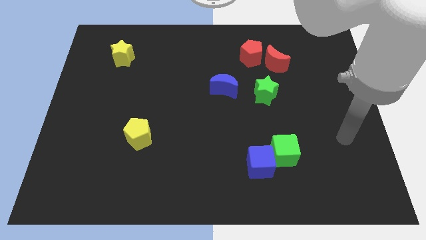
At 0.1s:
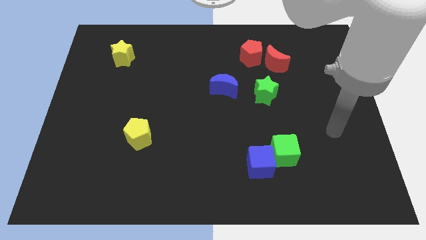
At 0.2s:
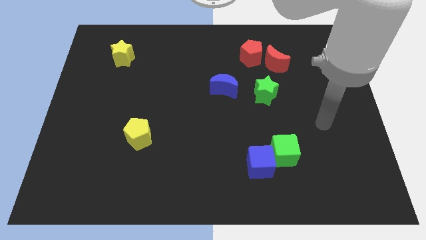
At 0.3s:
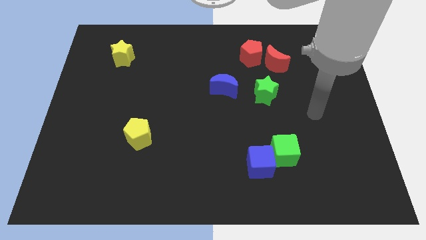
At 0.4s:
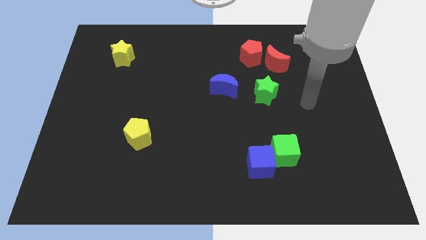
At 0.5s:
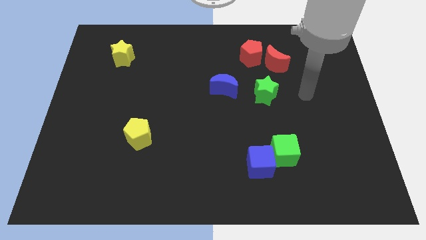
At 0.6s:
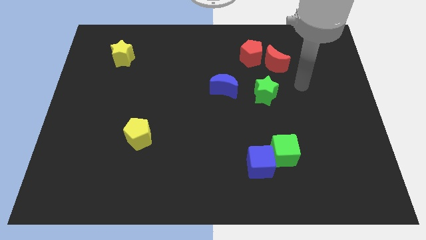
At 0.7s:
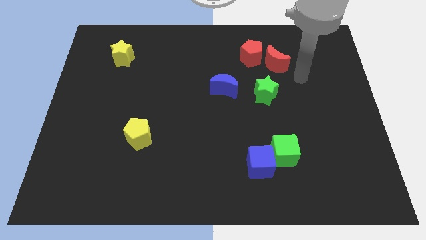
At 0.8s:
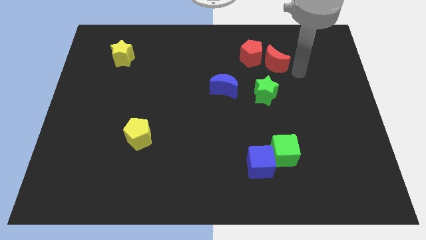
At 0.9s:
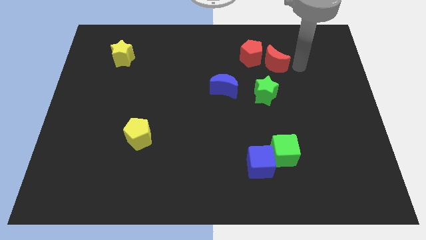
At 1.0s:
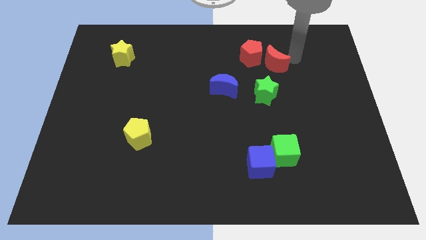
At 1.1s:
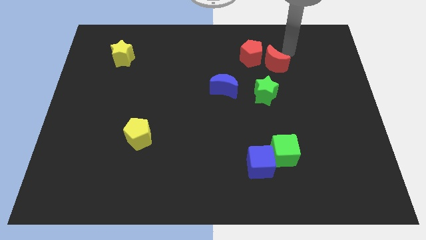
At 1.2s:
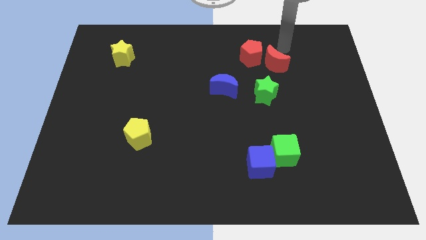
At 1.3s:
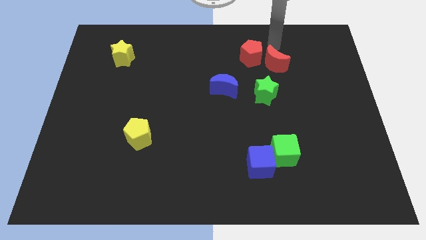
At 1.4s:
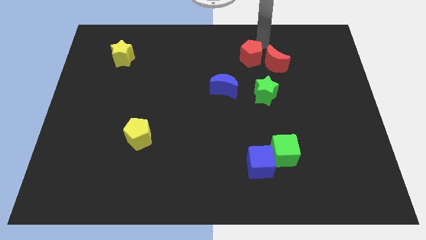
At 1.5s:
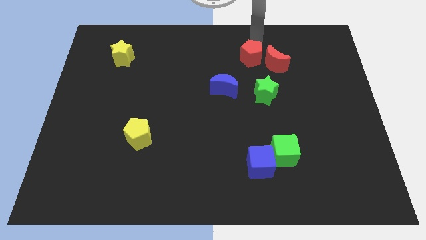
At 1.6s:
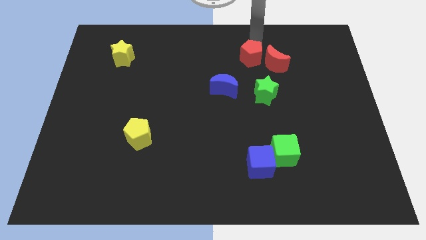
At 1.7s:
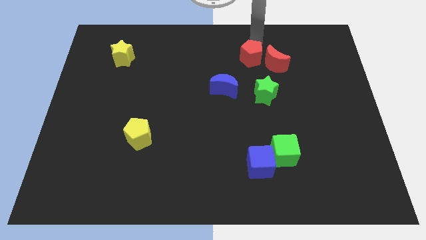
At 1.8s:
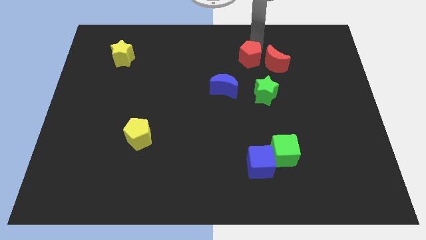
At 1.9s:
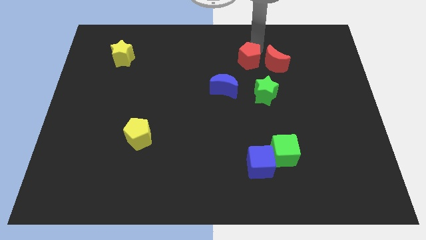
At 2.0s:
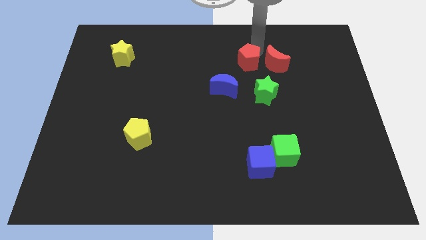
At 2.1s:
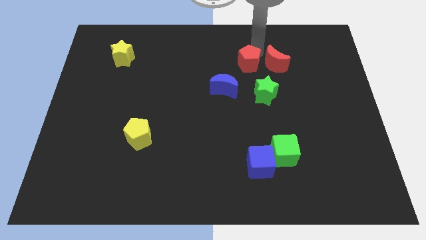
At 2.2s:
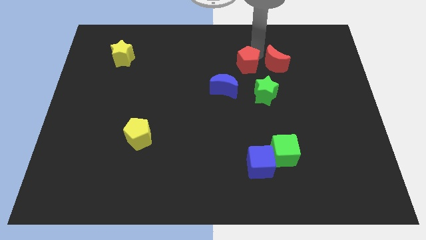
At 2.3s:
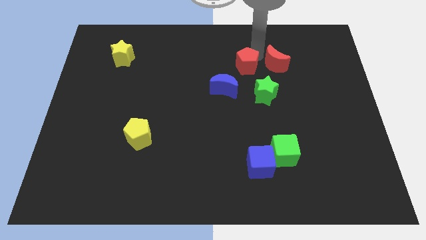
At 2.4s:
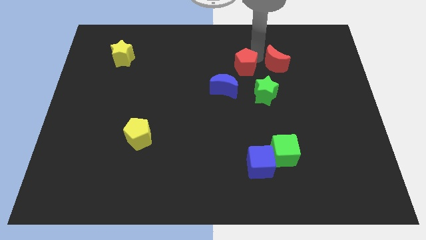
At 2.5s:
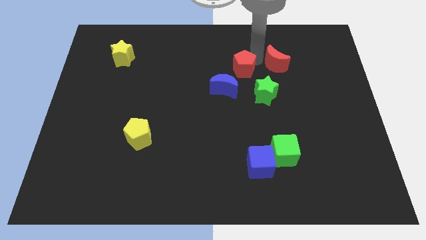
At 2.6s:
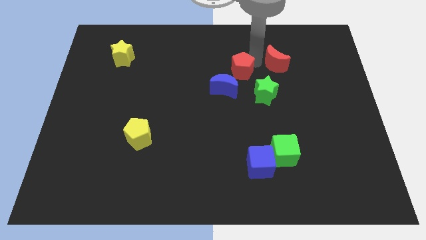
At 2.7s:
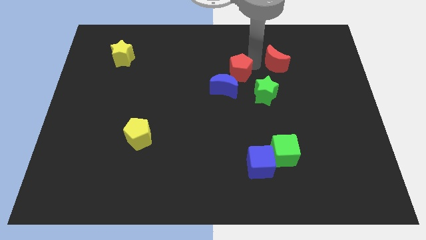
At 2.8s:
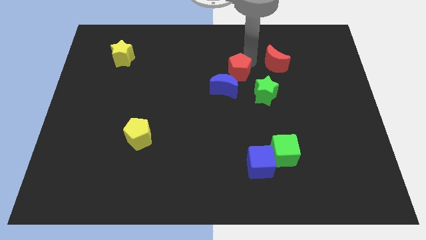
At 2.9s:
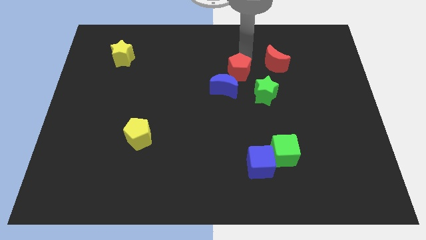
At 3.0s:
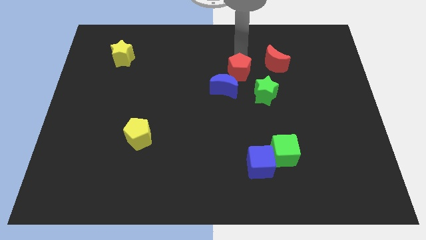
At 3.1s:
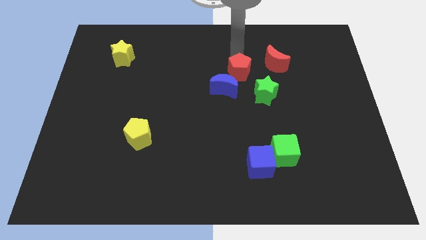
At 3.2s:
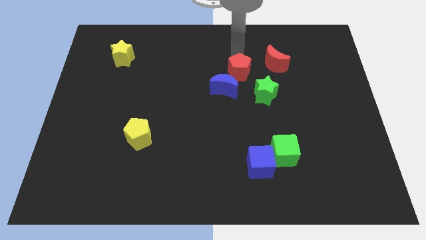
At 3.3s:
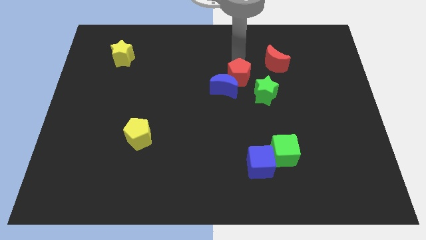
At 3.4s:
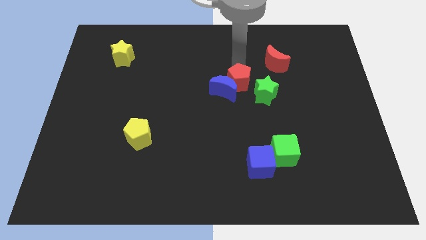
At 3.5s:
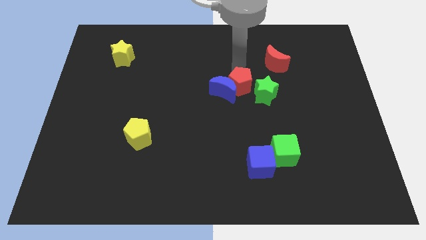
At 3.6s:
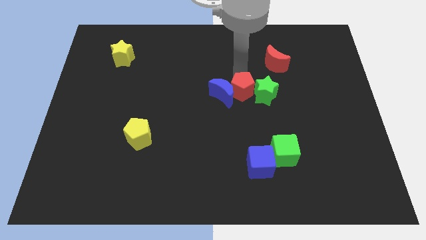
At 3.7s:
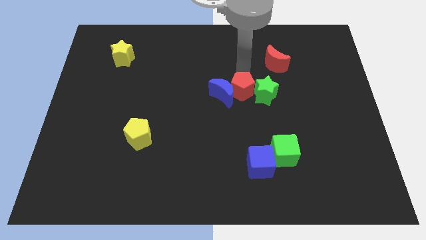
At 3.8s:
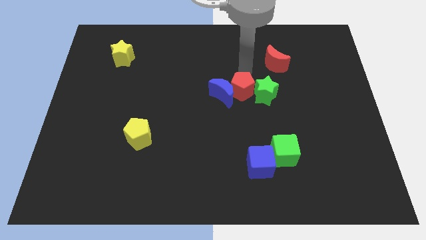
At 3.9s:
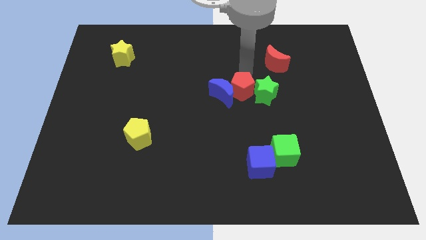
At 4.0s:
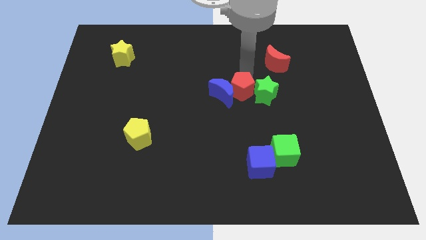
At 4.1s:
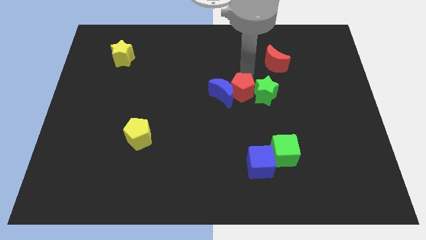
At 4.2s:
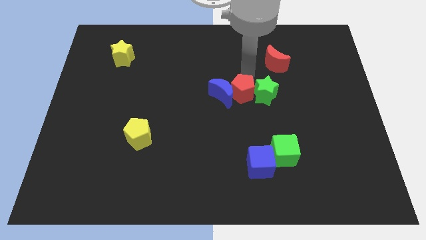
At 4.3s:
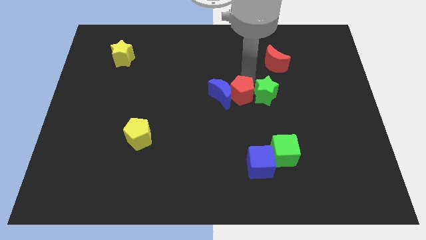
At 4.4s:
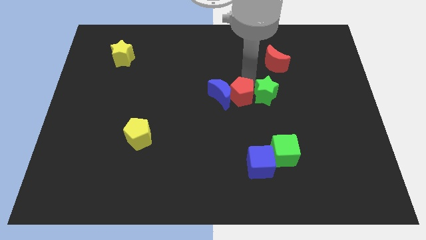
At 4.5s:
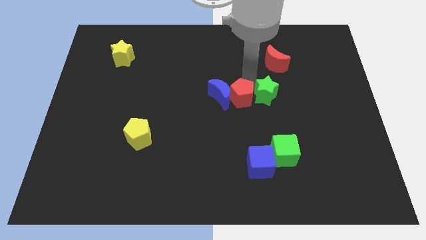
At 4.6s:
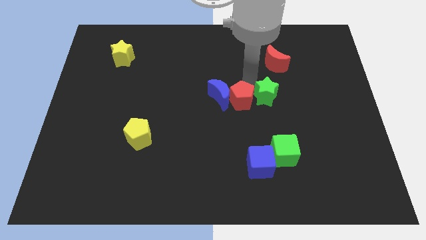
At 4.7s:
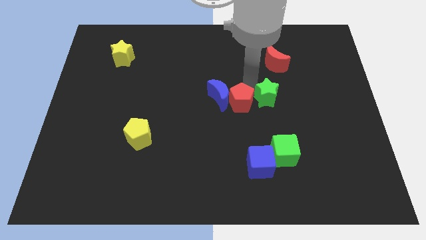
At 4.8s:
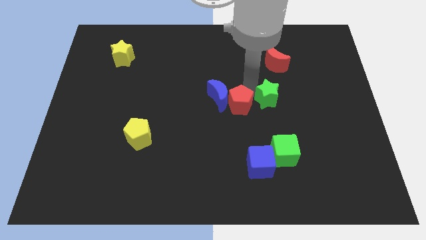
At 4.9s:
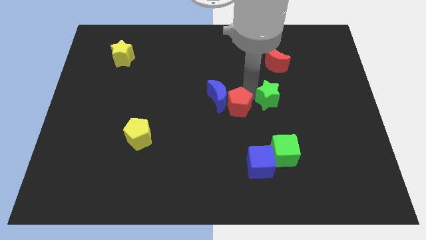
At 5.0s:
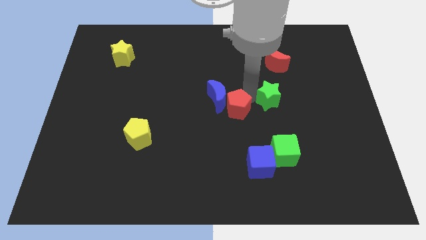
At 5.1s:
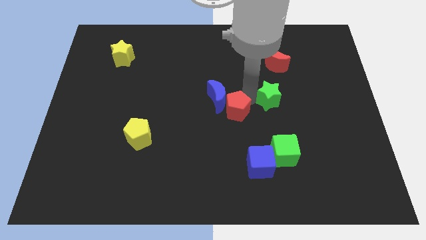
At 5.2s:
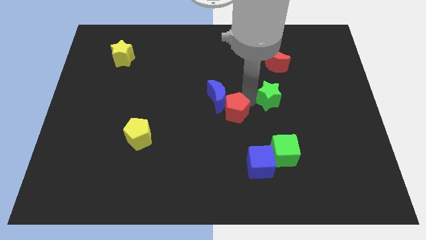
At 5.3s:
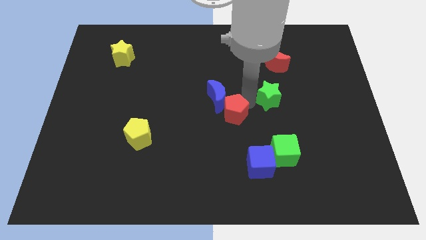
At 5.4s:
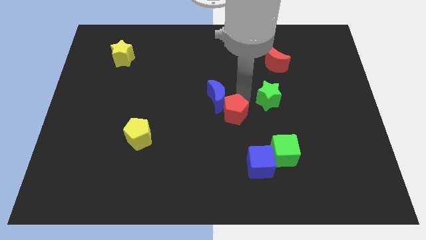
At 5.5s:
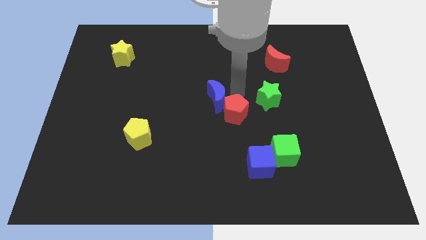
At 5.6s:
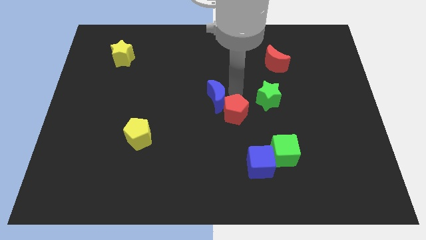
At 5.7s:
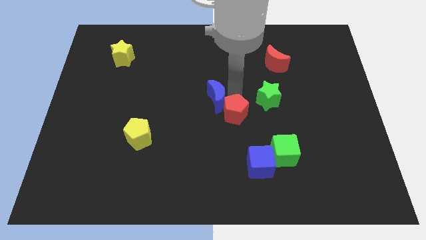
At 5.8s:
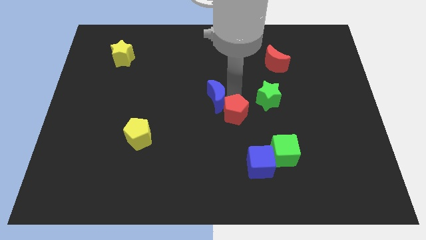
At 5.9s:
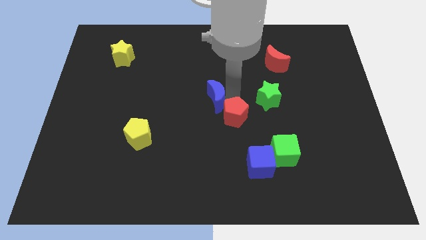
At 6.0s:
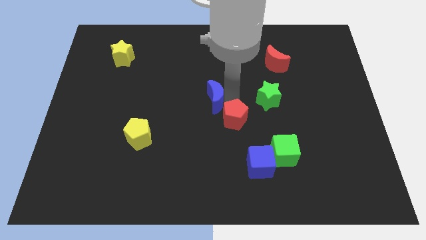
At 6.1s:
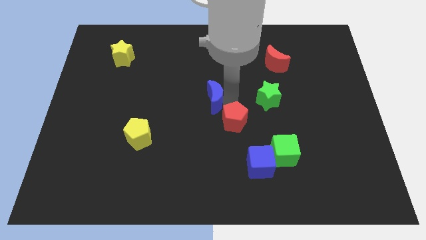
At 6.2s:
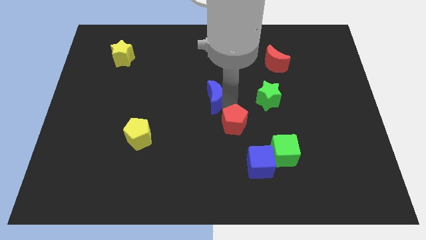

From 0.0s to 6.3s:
slide the red pentagon diagonally up and to the left of the blue cube

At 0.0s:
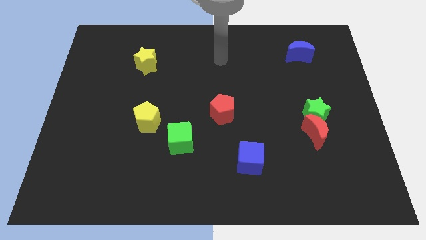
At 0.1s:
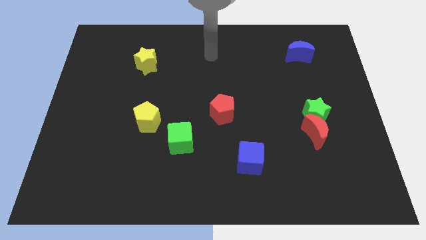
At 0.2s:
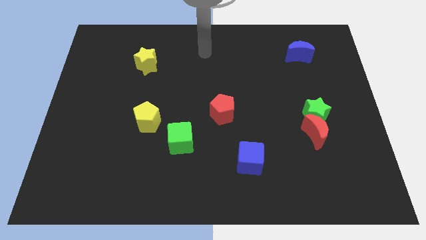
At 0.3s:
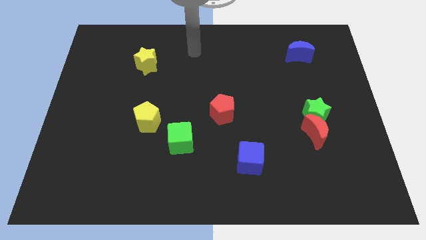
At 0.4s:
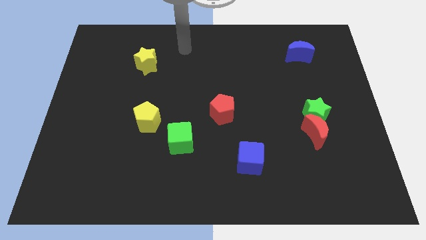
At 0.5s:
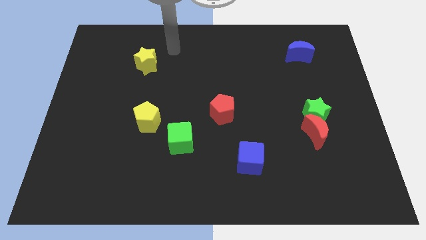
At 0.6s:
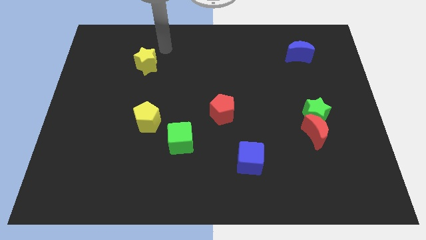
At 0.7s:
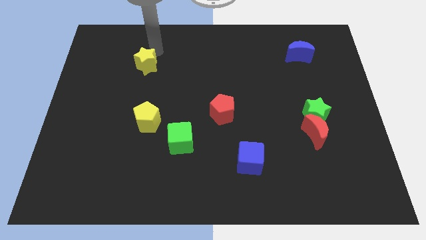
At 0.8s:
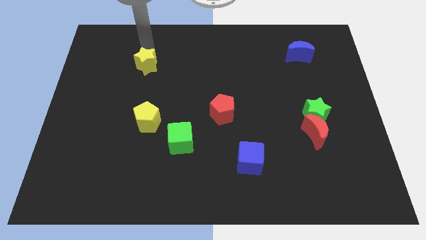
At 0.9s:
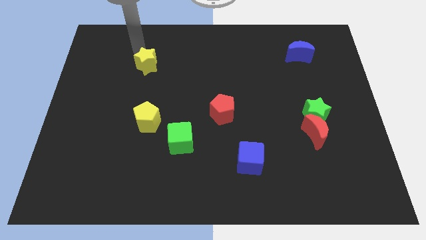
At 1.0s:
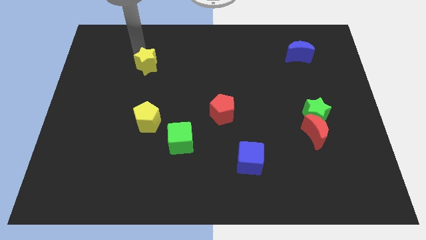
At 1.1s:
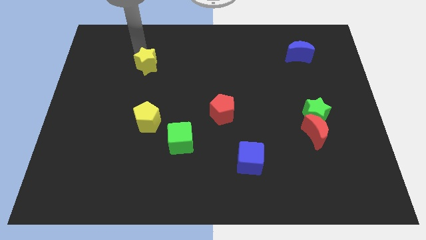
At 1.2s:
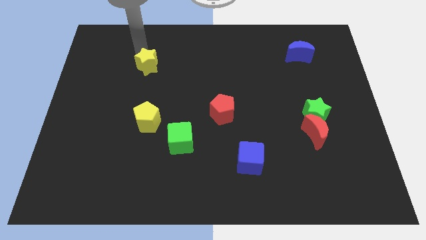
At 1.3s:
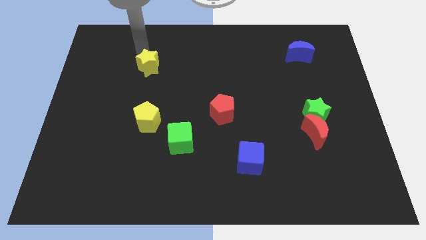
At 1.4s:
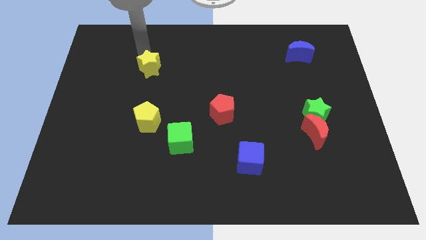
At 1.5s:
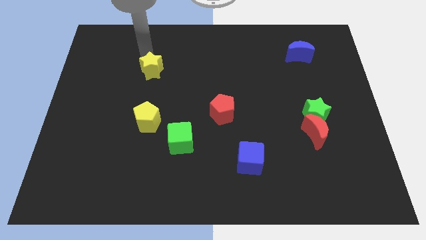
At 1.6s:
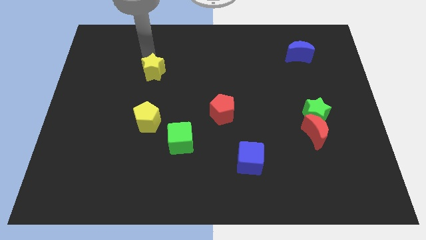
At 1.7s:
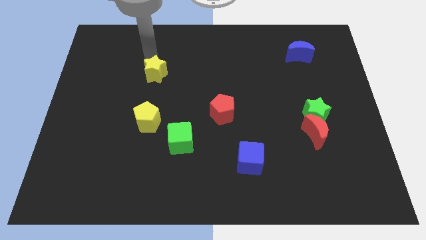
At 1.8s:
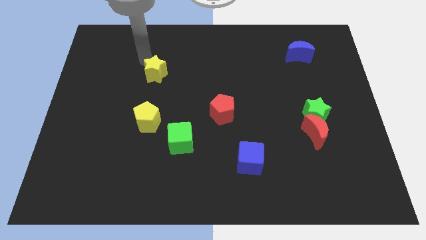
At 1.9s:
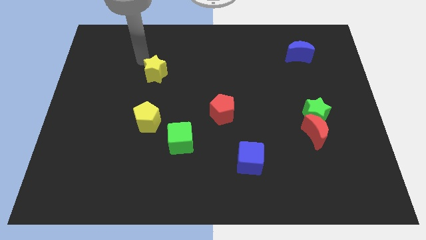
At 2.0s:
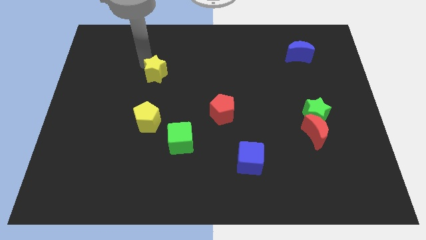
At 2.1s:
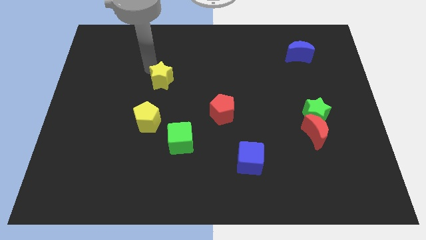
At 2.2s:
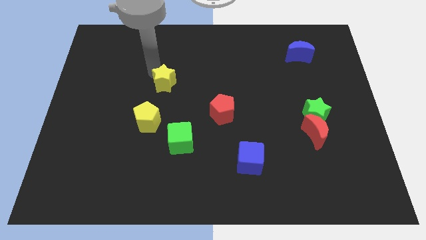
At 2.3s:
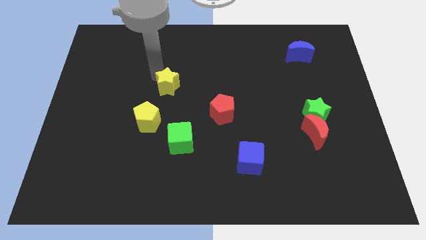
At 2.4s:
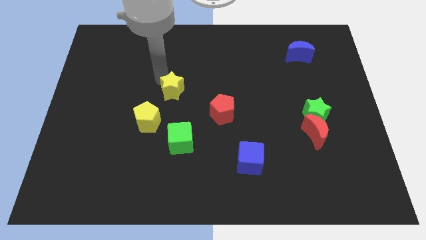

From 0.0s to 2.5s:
slide the yellow star above the green cube
